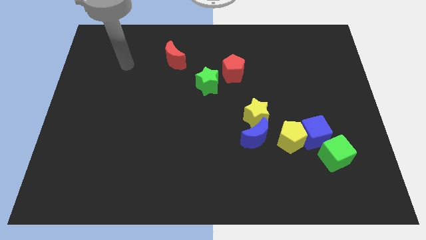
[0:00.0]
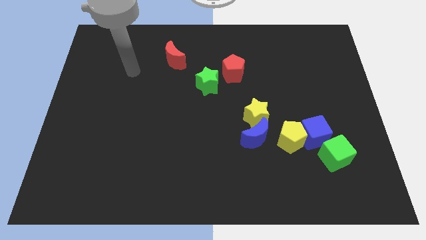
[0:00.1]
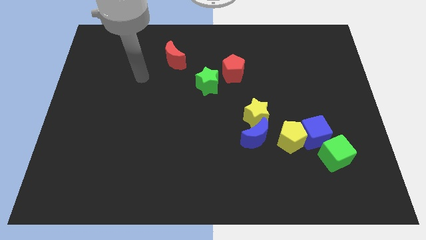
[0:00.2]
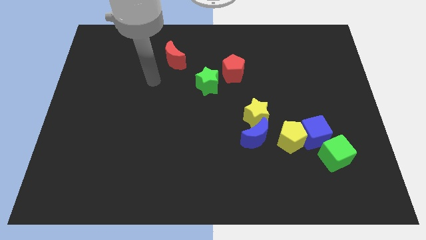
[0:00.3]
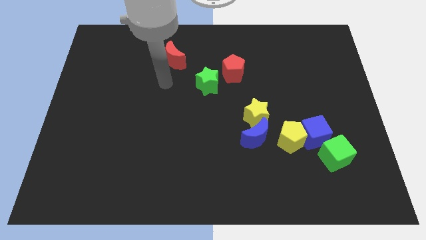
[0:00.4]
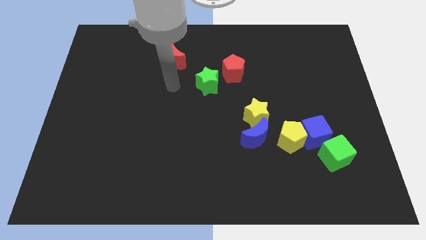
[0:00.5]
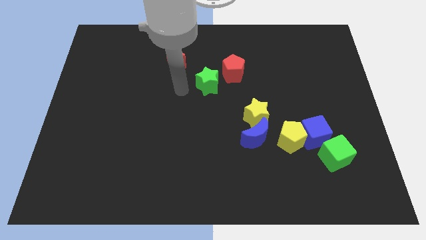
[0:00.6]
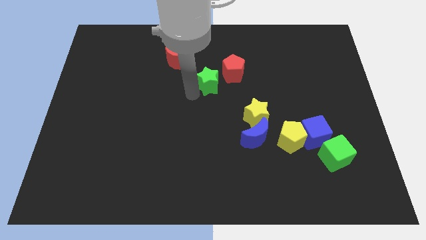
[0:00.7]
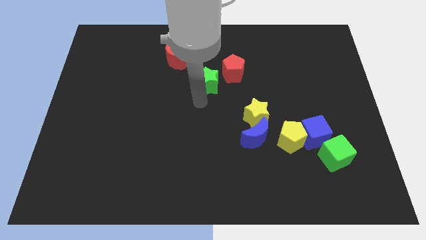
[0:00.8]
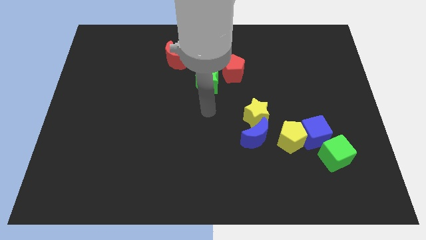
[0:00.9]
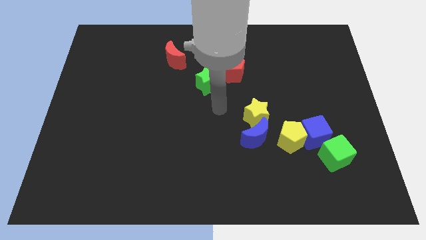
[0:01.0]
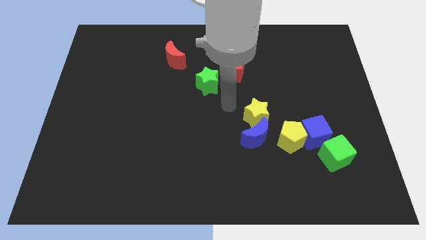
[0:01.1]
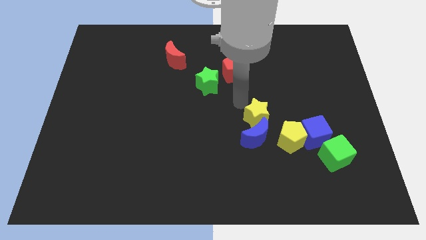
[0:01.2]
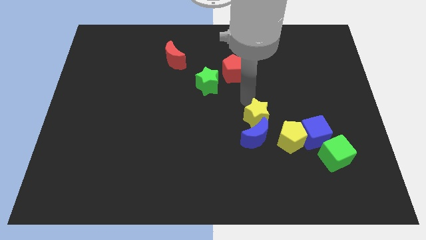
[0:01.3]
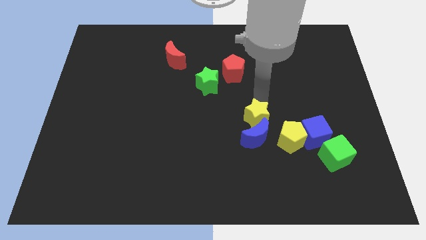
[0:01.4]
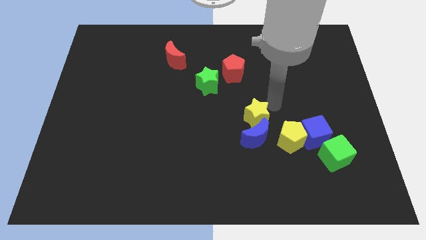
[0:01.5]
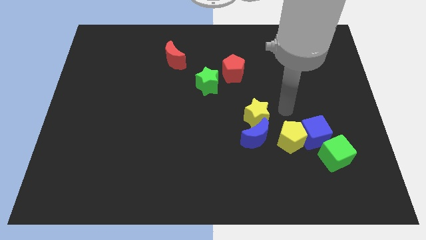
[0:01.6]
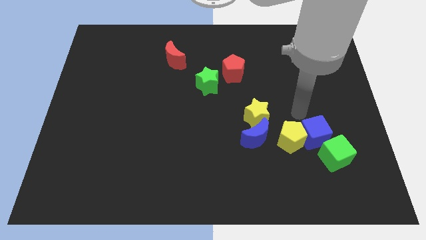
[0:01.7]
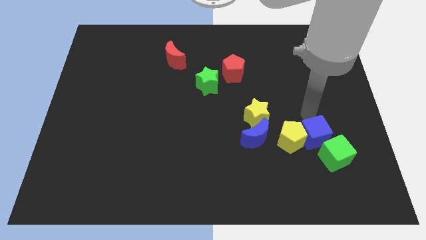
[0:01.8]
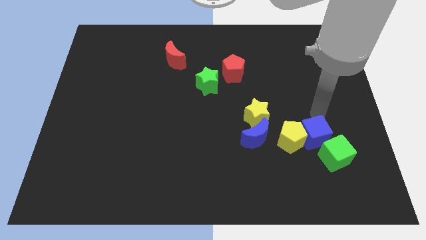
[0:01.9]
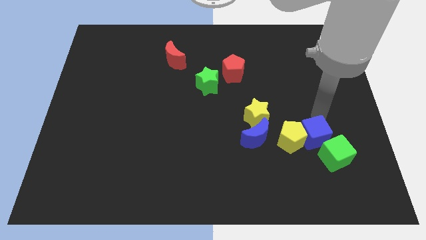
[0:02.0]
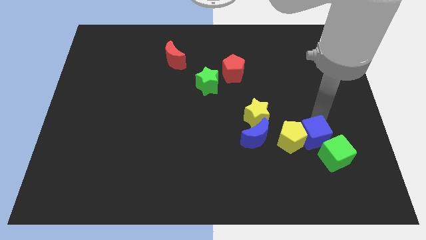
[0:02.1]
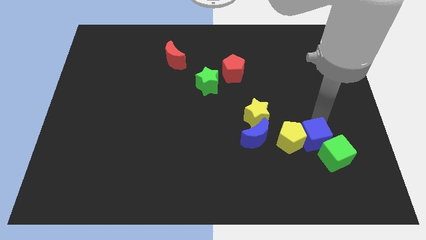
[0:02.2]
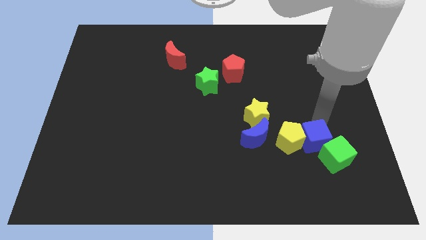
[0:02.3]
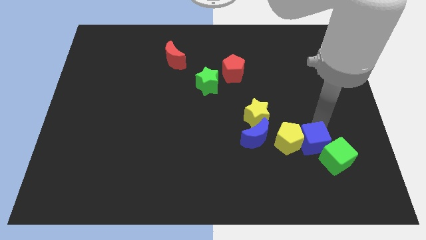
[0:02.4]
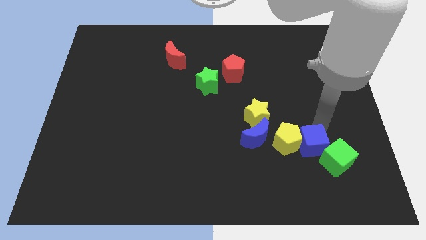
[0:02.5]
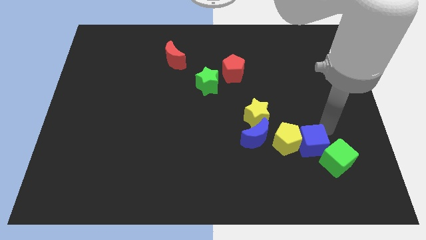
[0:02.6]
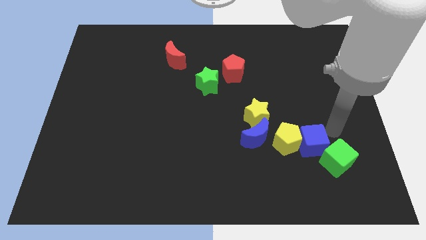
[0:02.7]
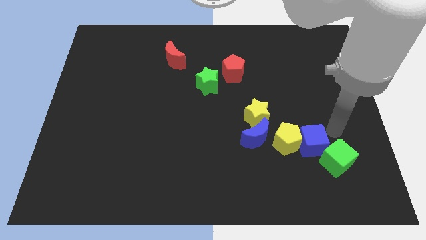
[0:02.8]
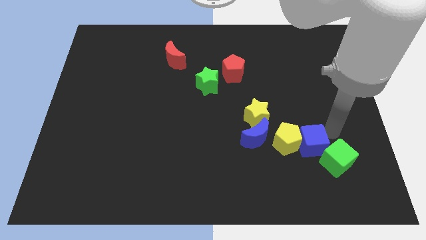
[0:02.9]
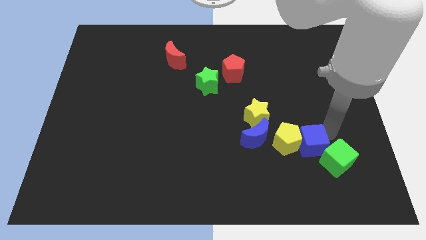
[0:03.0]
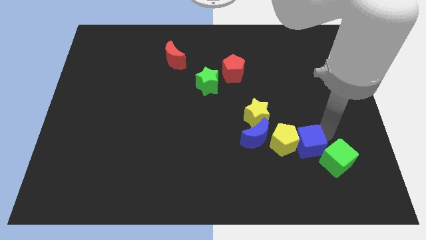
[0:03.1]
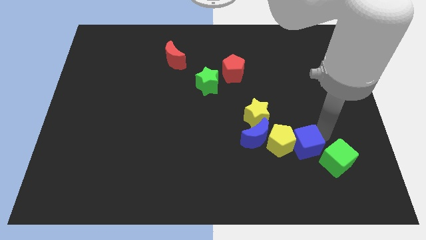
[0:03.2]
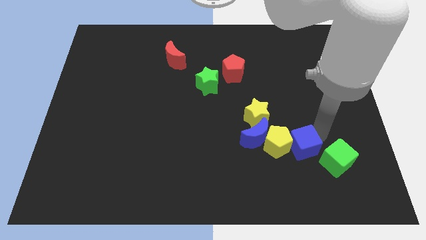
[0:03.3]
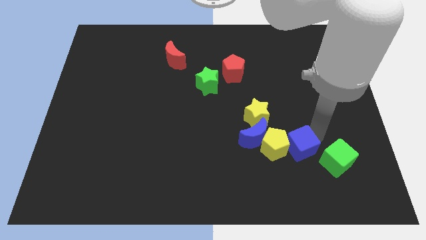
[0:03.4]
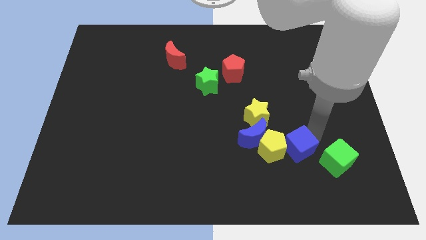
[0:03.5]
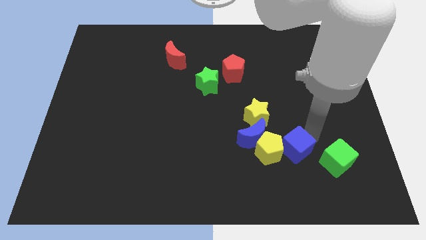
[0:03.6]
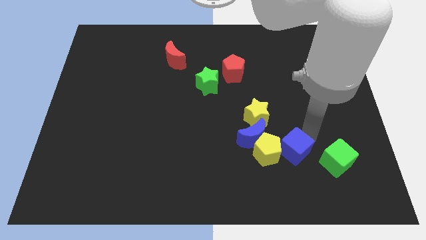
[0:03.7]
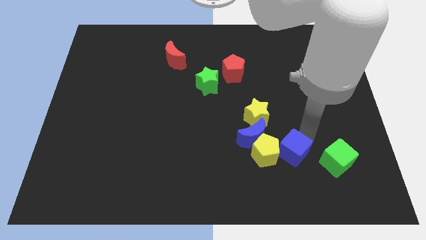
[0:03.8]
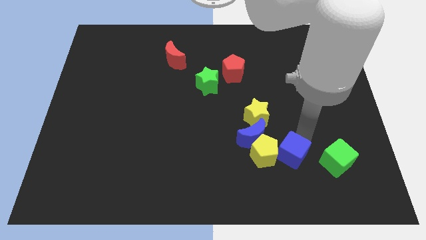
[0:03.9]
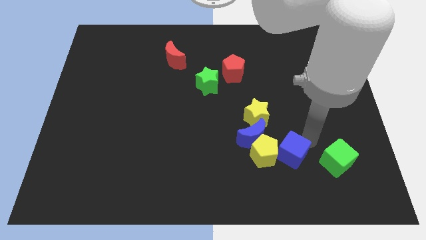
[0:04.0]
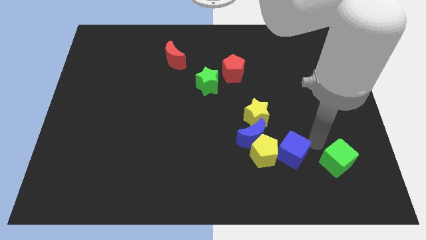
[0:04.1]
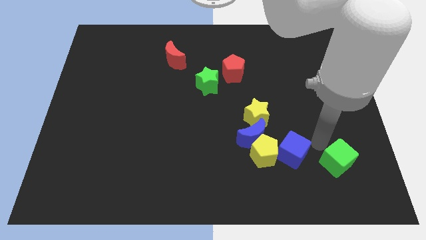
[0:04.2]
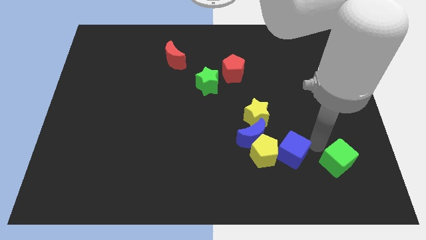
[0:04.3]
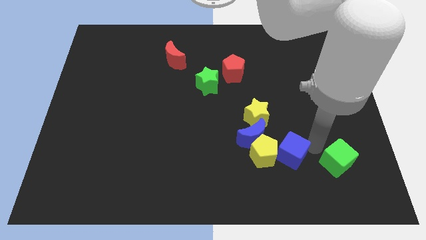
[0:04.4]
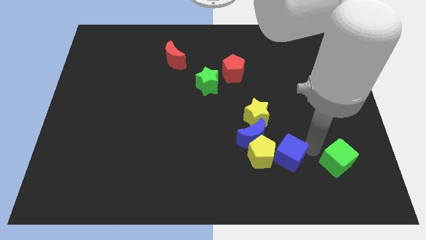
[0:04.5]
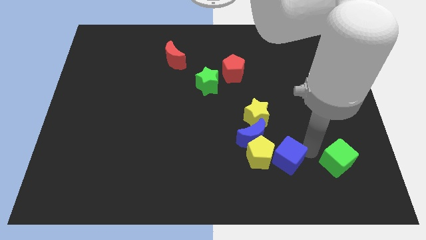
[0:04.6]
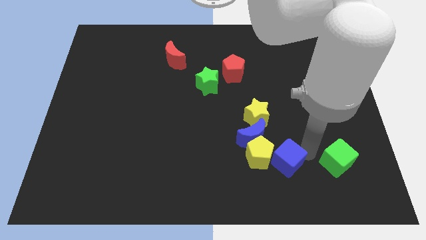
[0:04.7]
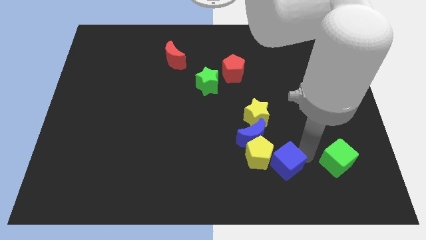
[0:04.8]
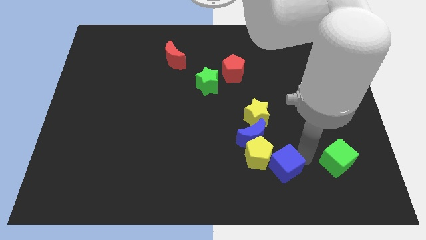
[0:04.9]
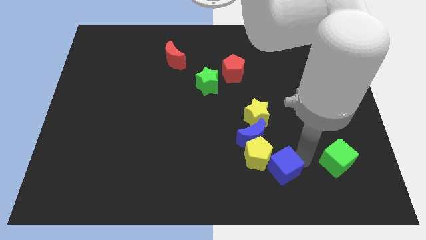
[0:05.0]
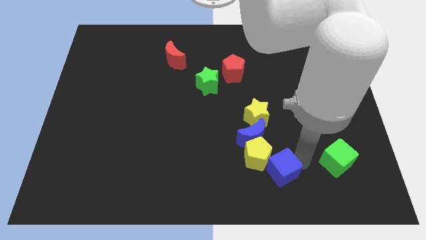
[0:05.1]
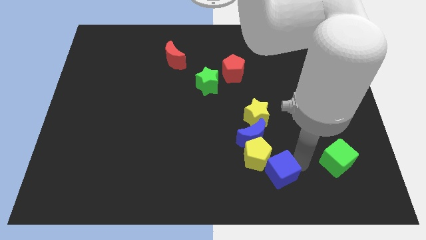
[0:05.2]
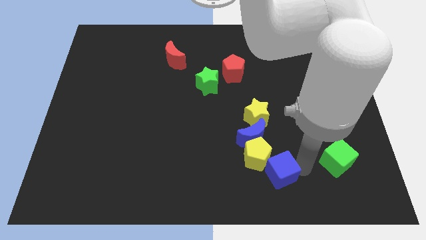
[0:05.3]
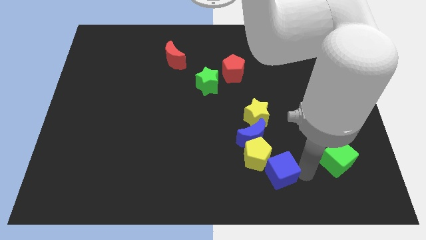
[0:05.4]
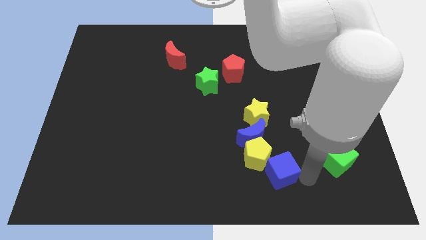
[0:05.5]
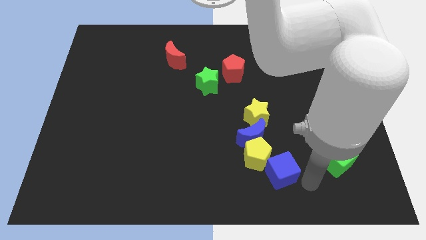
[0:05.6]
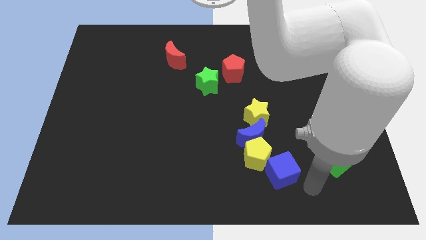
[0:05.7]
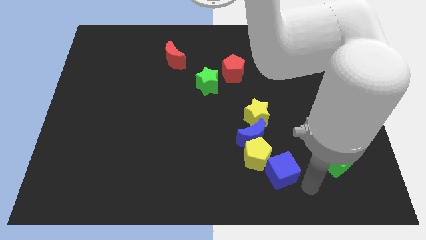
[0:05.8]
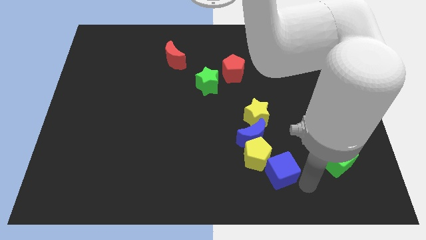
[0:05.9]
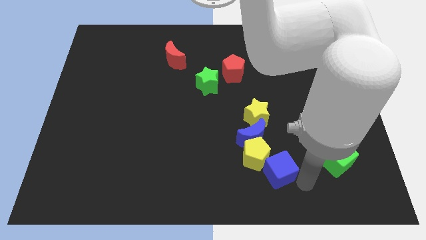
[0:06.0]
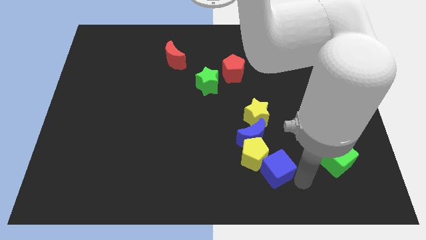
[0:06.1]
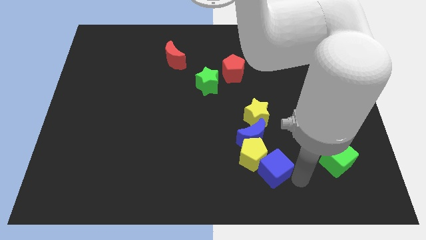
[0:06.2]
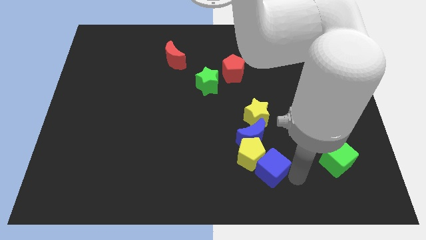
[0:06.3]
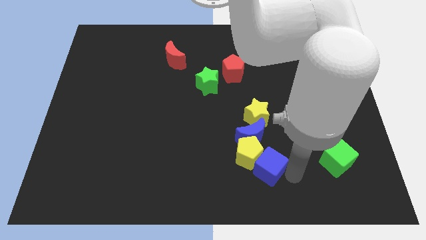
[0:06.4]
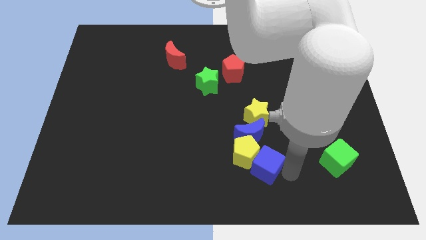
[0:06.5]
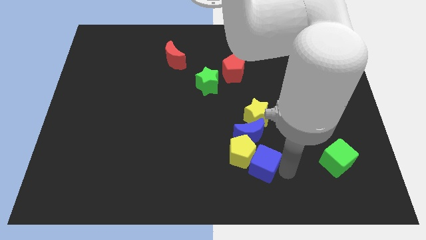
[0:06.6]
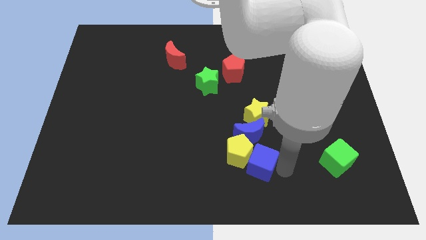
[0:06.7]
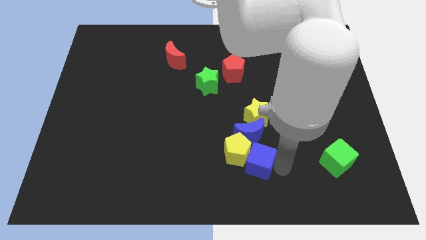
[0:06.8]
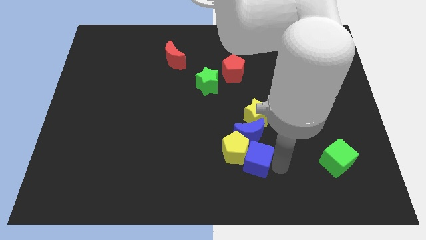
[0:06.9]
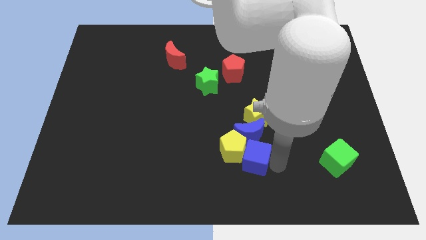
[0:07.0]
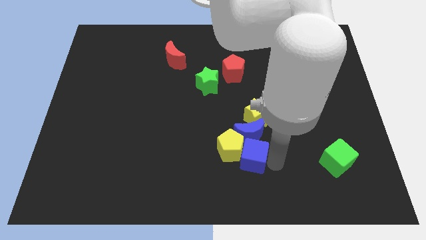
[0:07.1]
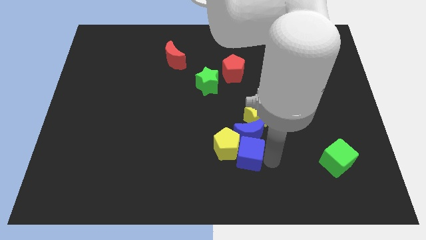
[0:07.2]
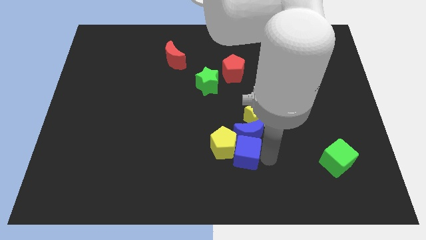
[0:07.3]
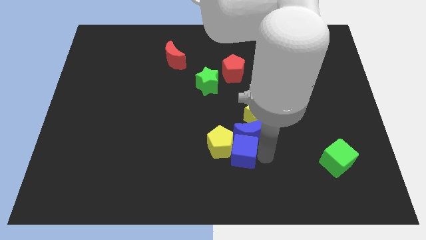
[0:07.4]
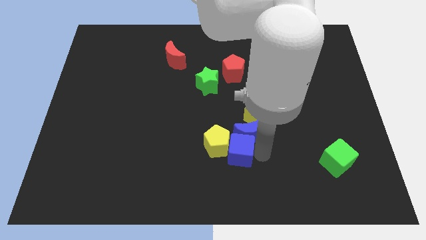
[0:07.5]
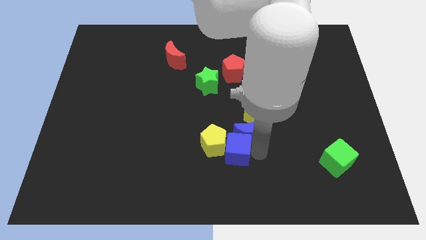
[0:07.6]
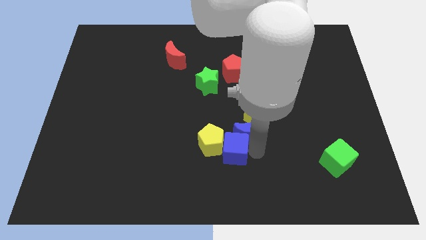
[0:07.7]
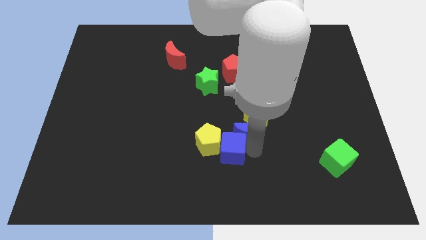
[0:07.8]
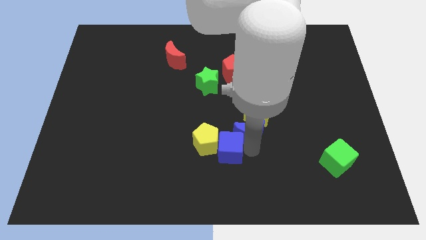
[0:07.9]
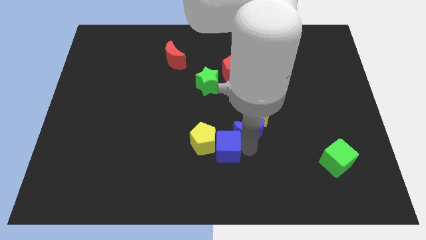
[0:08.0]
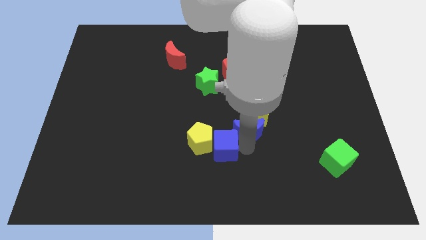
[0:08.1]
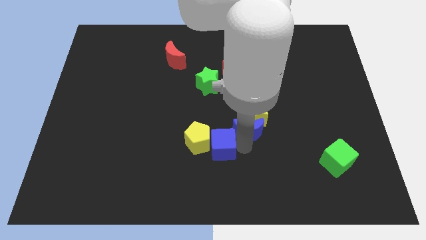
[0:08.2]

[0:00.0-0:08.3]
push the blue cube left
